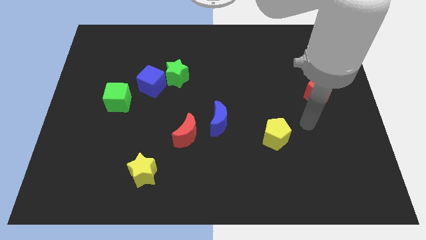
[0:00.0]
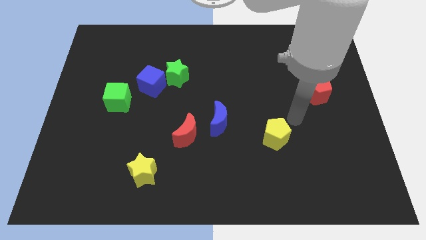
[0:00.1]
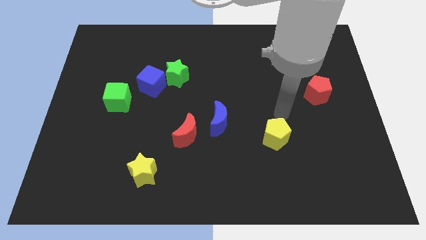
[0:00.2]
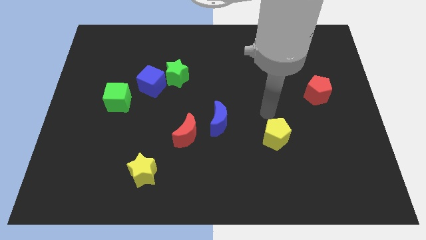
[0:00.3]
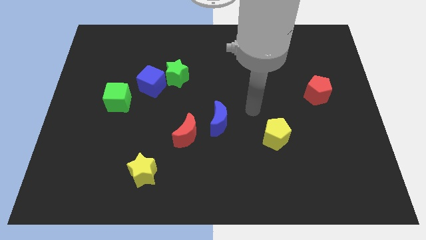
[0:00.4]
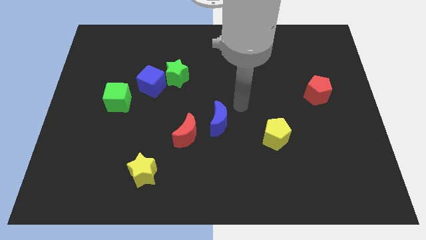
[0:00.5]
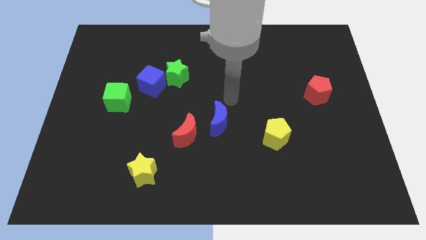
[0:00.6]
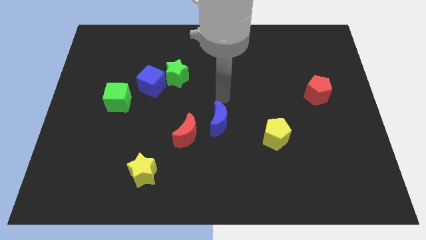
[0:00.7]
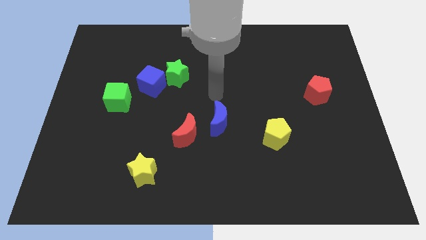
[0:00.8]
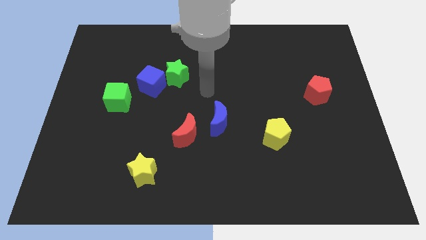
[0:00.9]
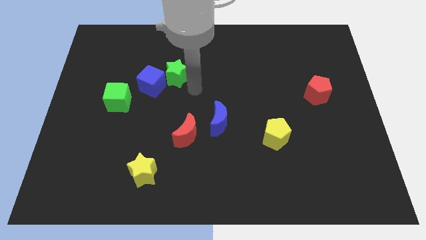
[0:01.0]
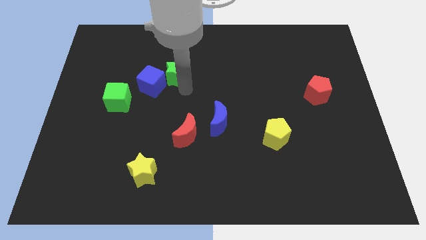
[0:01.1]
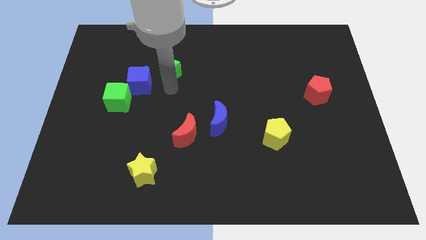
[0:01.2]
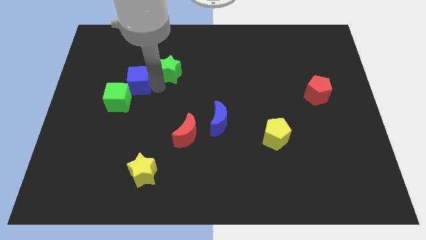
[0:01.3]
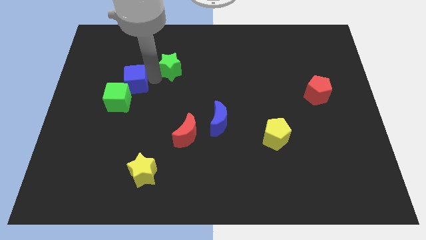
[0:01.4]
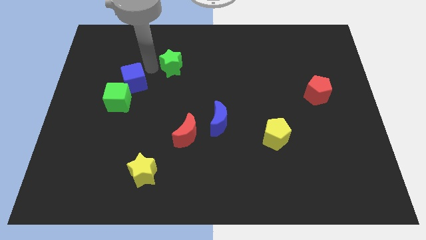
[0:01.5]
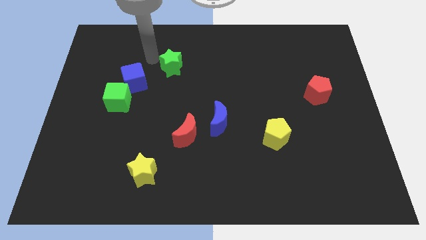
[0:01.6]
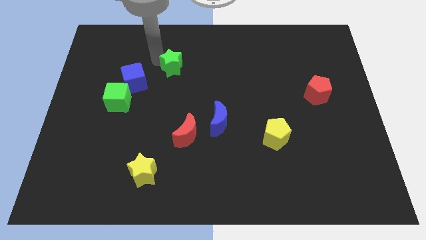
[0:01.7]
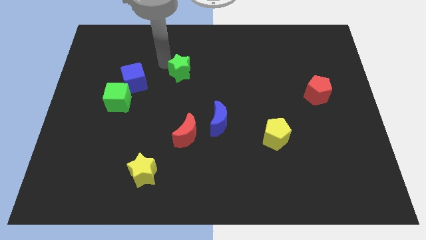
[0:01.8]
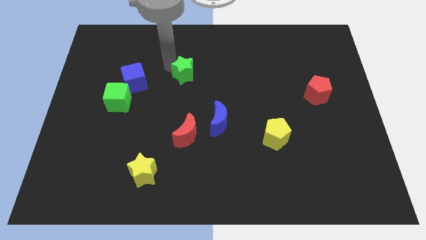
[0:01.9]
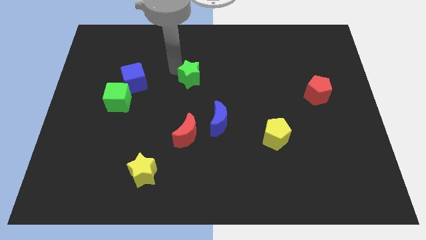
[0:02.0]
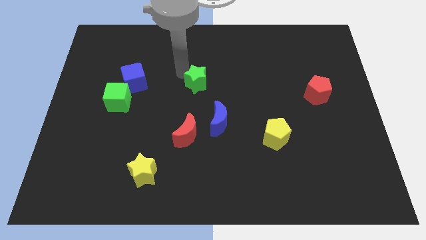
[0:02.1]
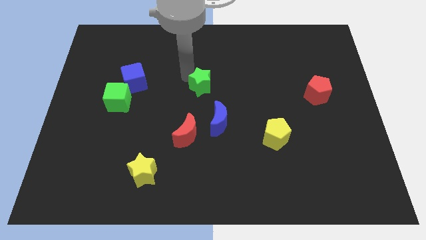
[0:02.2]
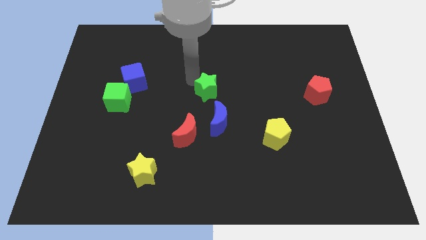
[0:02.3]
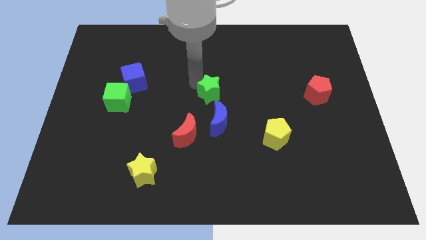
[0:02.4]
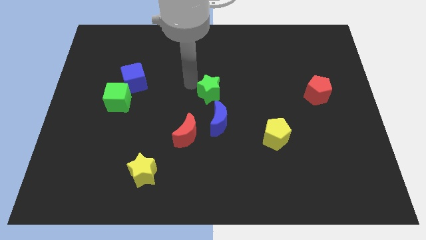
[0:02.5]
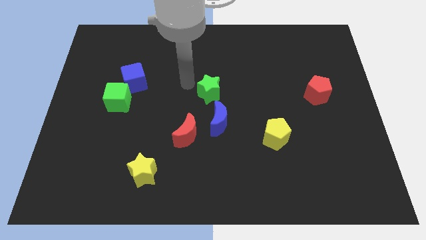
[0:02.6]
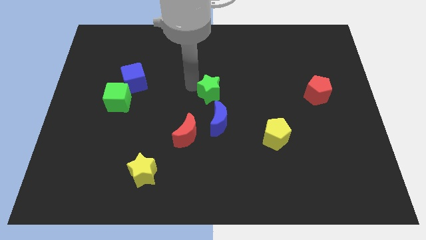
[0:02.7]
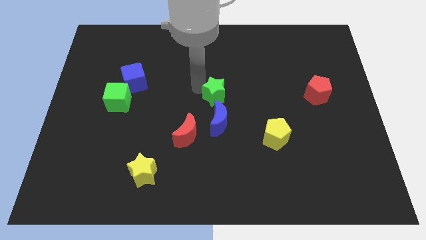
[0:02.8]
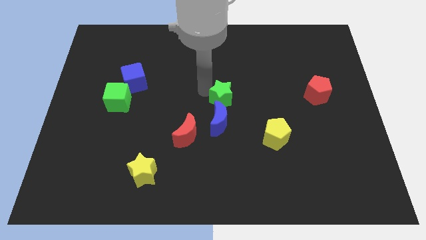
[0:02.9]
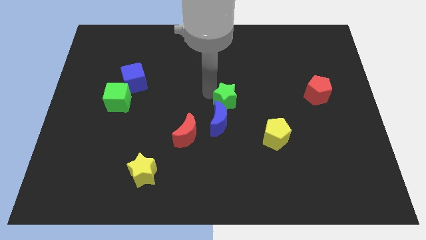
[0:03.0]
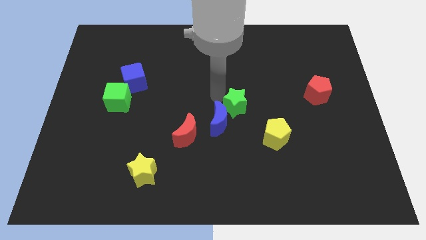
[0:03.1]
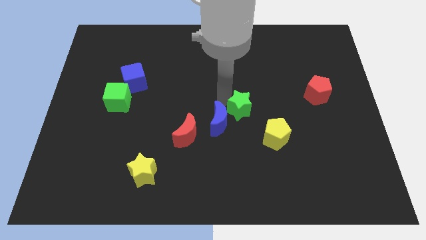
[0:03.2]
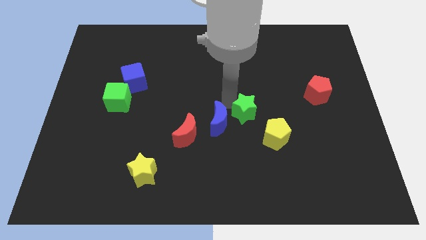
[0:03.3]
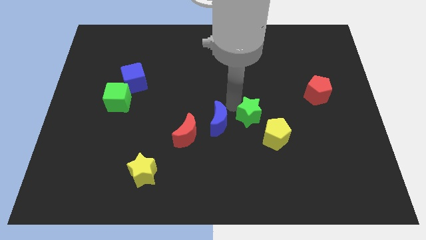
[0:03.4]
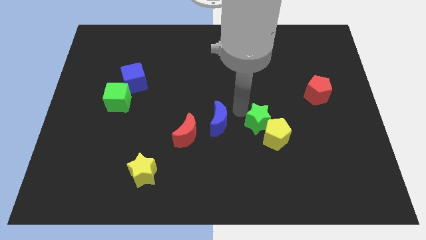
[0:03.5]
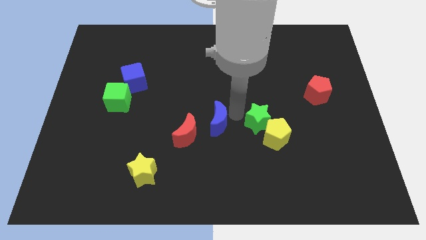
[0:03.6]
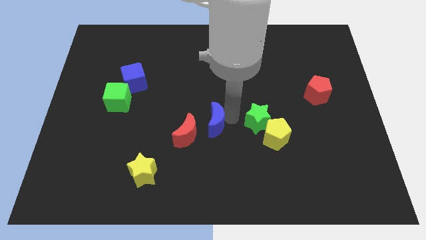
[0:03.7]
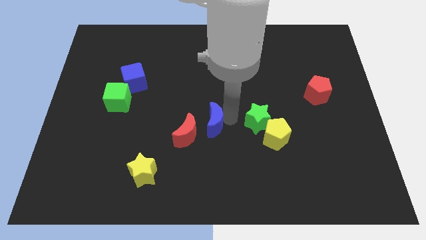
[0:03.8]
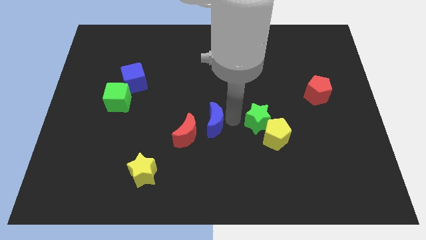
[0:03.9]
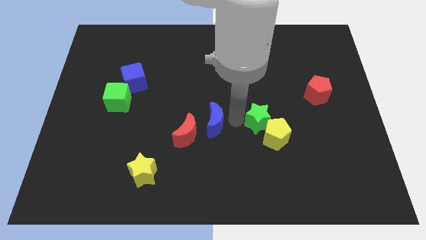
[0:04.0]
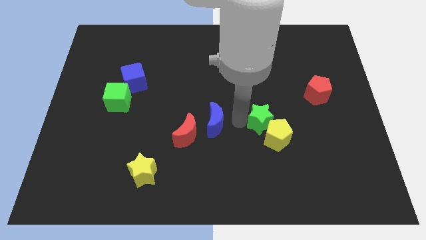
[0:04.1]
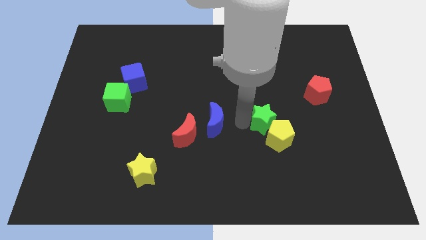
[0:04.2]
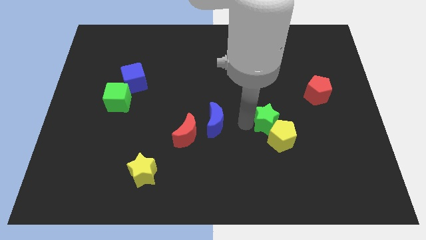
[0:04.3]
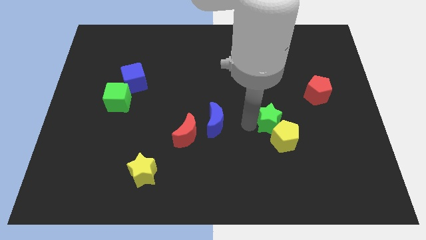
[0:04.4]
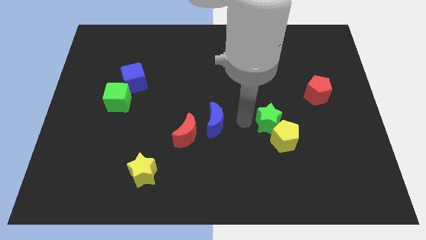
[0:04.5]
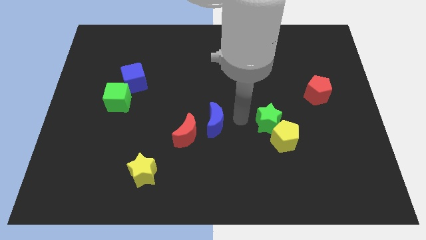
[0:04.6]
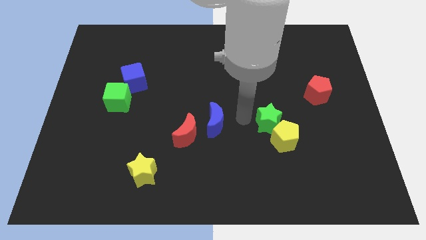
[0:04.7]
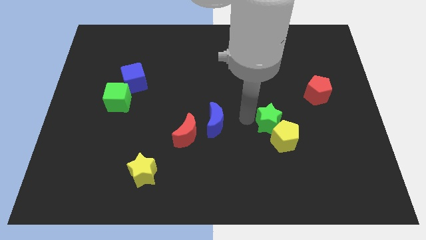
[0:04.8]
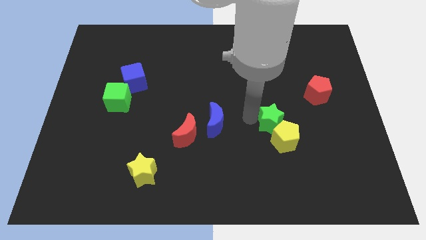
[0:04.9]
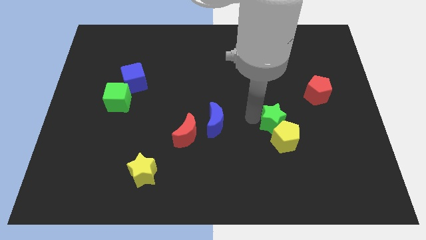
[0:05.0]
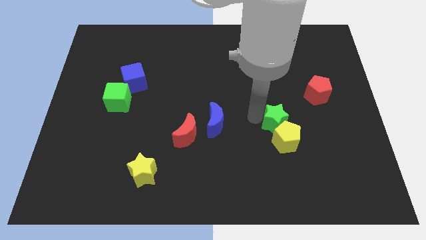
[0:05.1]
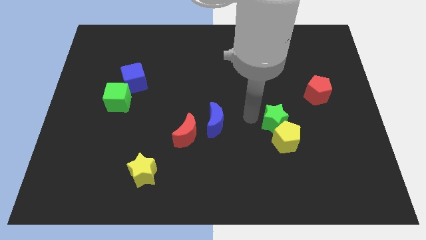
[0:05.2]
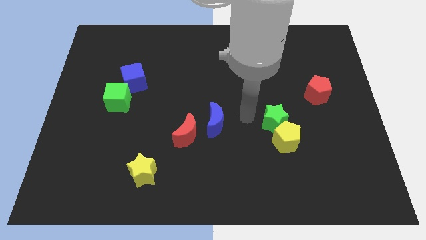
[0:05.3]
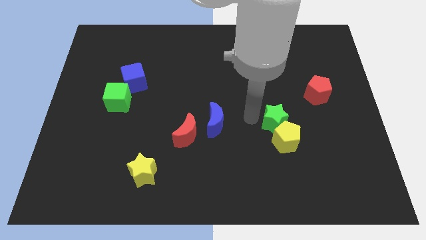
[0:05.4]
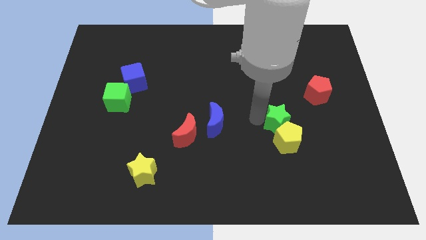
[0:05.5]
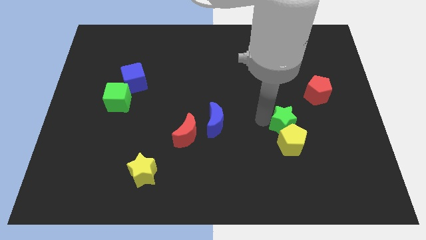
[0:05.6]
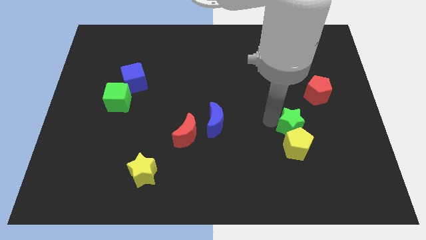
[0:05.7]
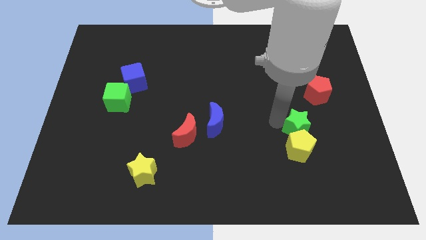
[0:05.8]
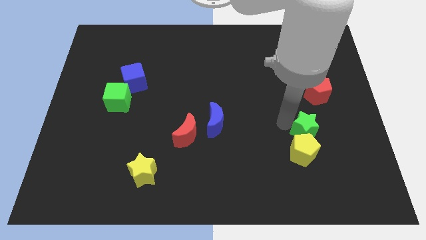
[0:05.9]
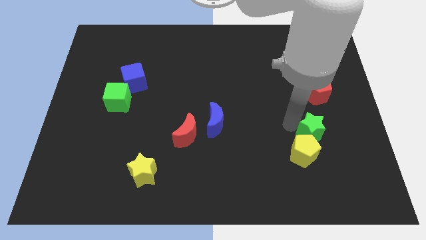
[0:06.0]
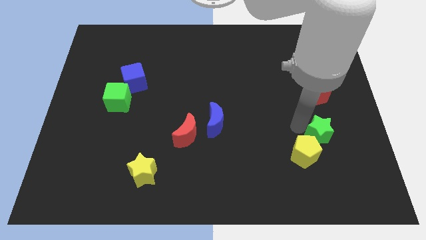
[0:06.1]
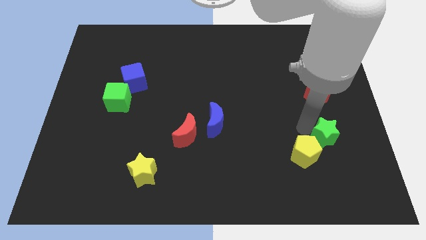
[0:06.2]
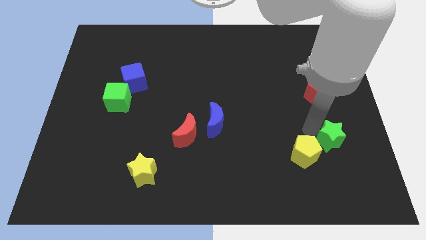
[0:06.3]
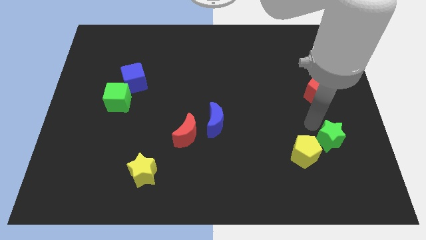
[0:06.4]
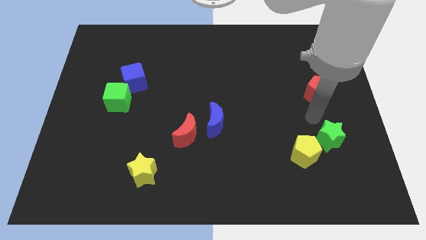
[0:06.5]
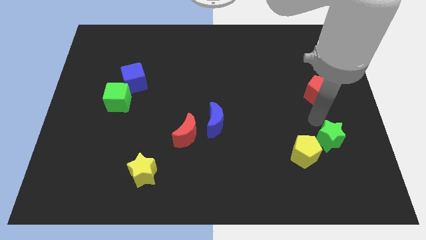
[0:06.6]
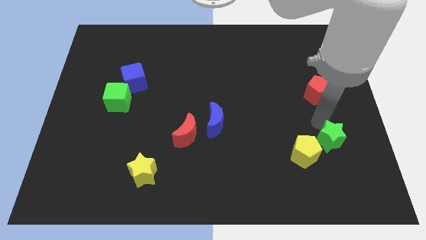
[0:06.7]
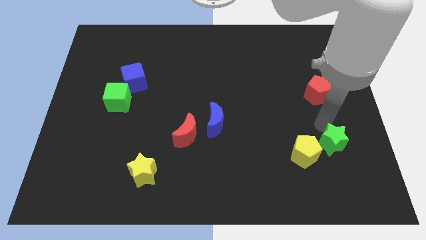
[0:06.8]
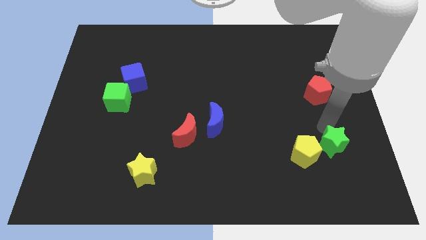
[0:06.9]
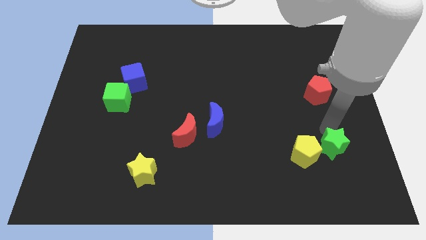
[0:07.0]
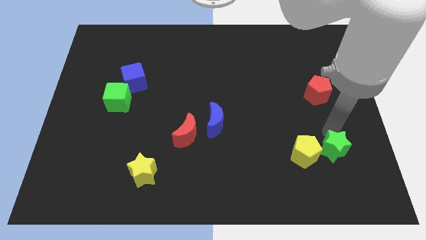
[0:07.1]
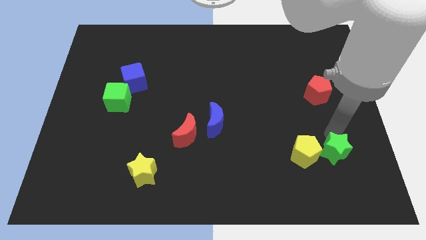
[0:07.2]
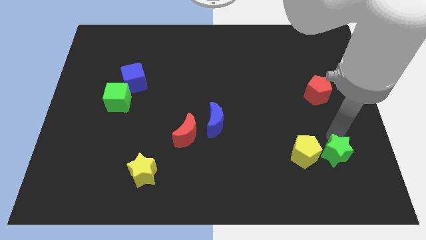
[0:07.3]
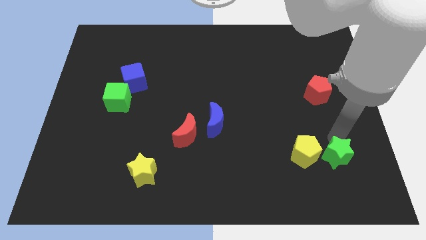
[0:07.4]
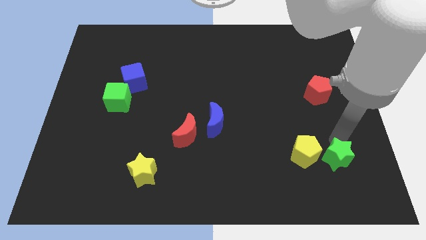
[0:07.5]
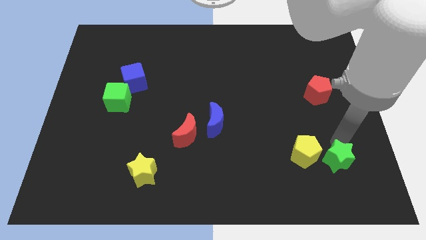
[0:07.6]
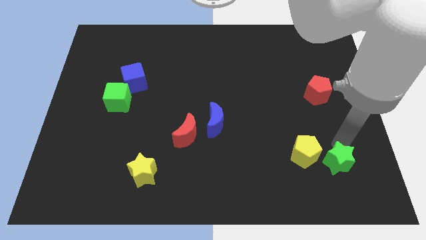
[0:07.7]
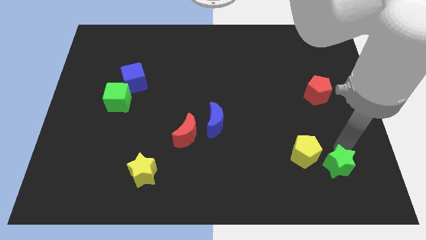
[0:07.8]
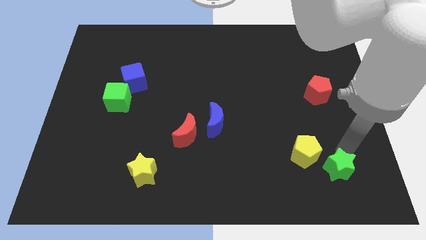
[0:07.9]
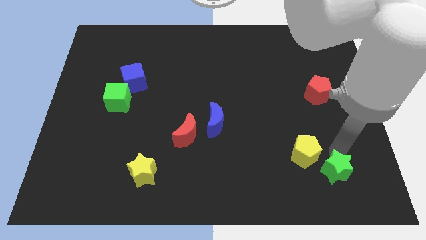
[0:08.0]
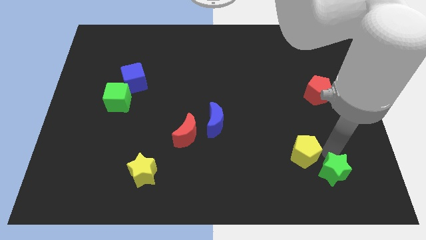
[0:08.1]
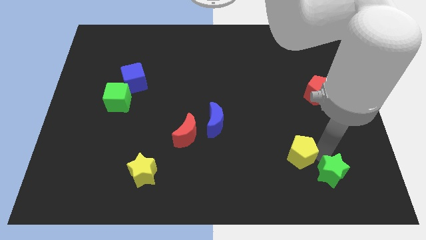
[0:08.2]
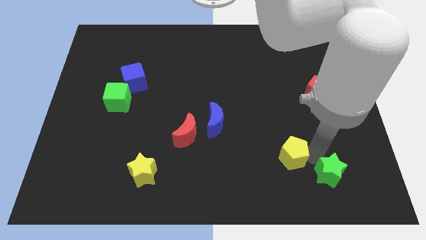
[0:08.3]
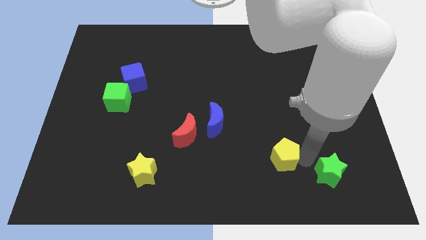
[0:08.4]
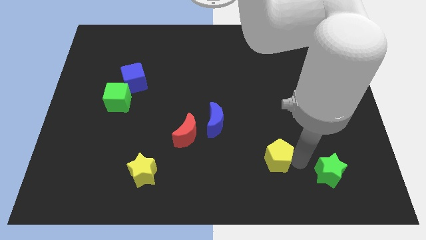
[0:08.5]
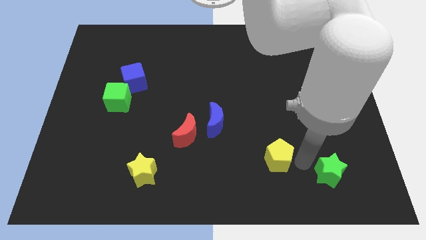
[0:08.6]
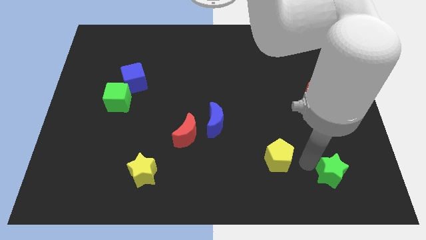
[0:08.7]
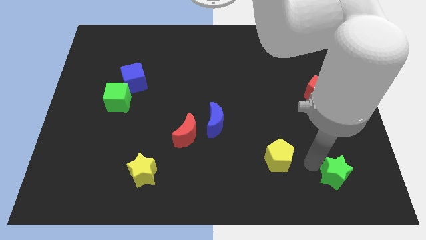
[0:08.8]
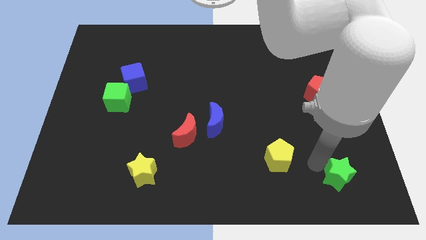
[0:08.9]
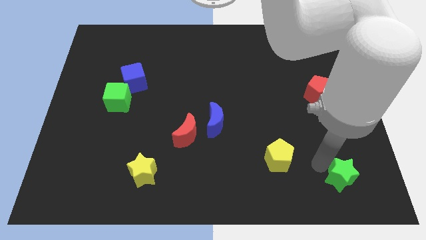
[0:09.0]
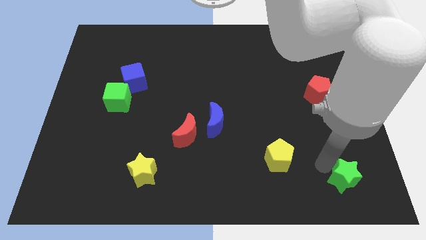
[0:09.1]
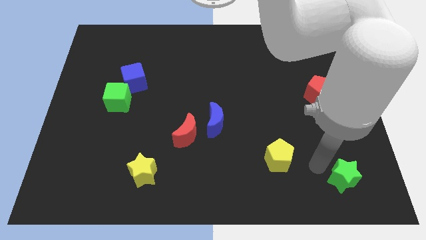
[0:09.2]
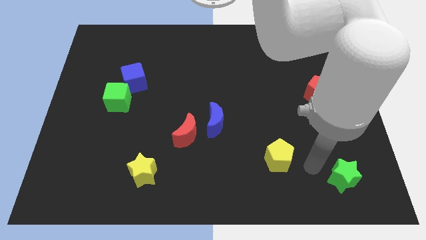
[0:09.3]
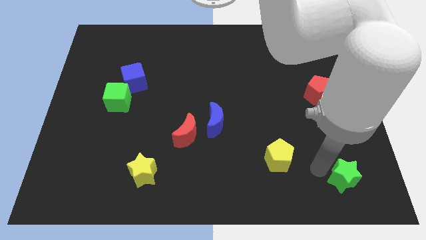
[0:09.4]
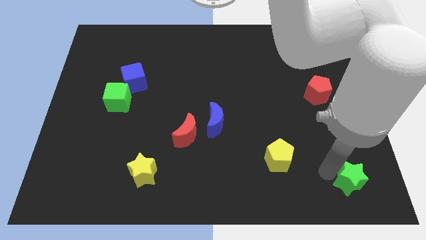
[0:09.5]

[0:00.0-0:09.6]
push the green star to the bottom right
